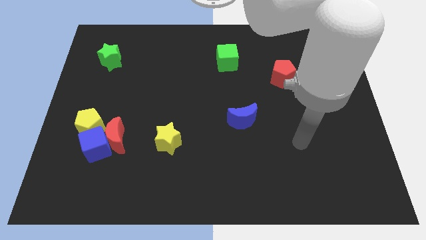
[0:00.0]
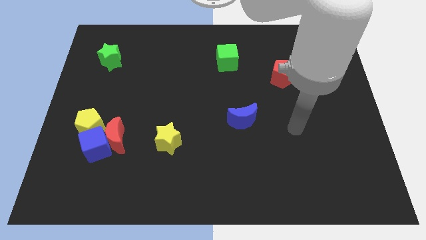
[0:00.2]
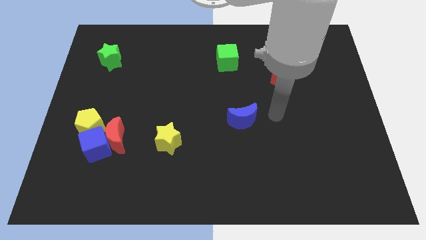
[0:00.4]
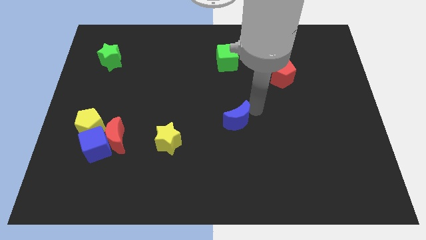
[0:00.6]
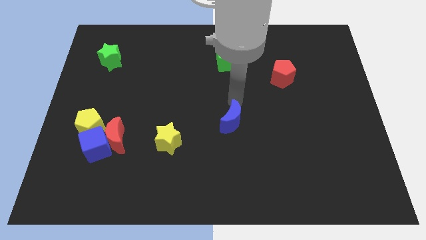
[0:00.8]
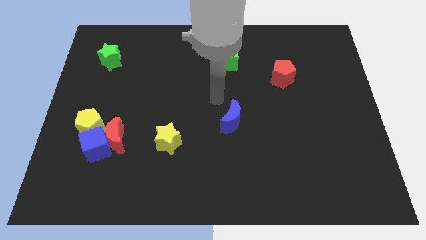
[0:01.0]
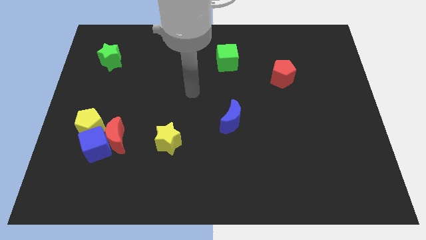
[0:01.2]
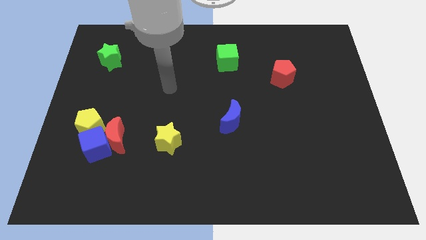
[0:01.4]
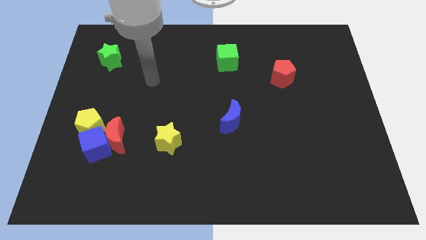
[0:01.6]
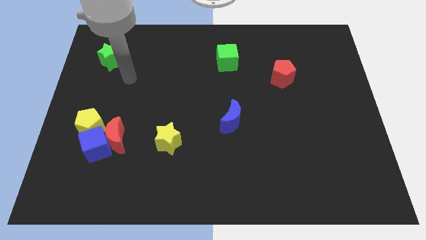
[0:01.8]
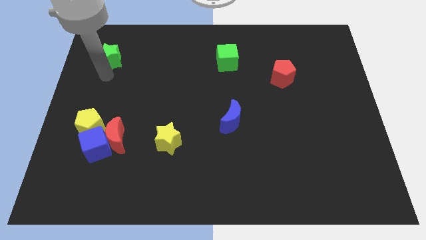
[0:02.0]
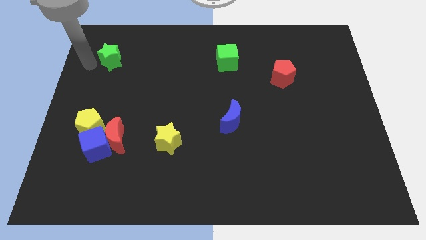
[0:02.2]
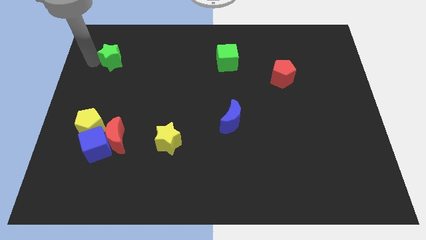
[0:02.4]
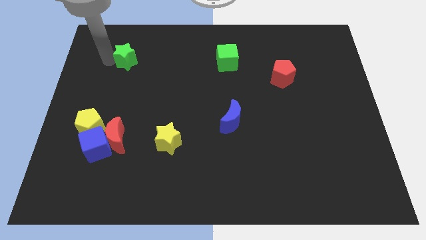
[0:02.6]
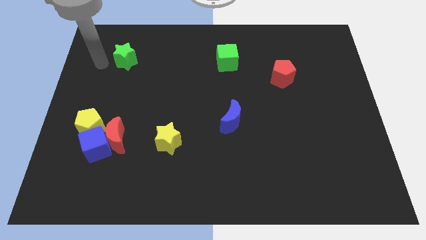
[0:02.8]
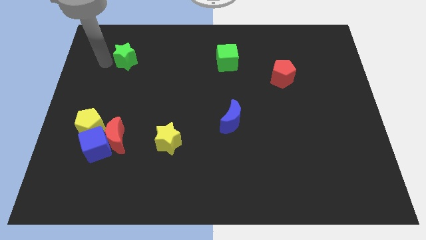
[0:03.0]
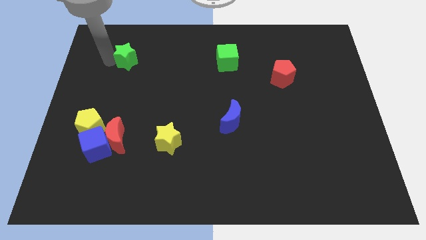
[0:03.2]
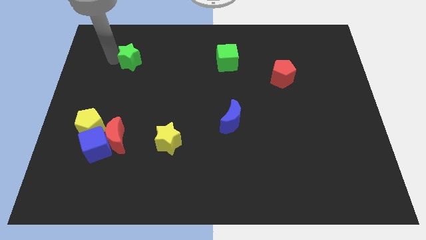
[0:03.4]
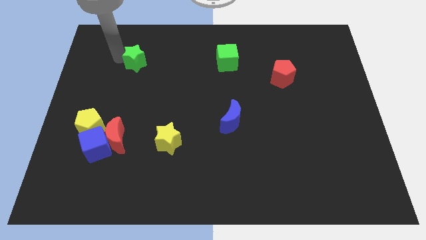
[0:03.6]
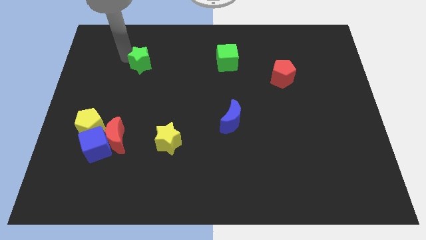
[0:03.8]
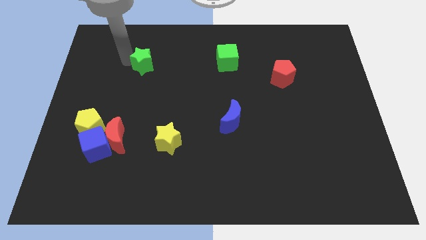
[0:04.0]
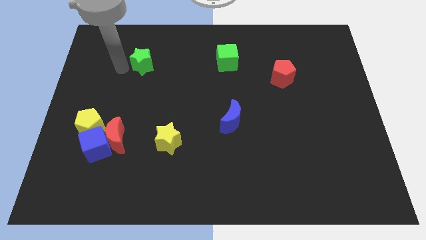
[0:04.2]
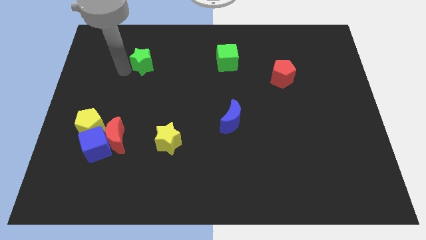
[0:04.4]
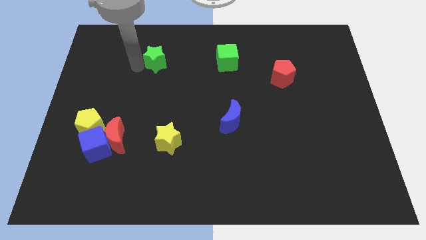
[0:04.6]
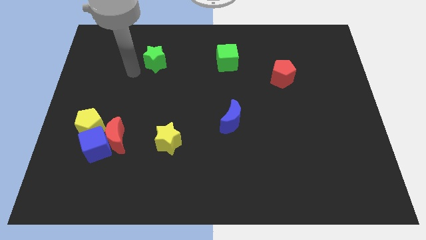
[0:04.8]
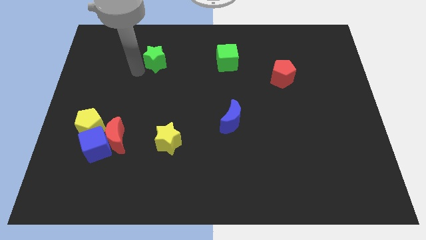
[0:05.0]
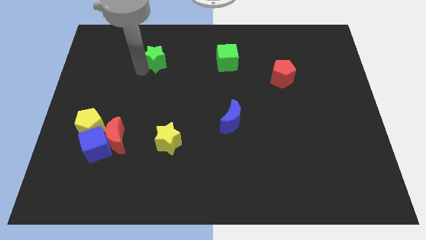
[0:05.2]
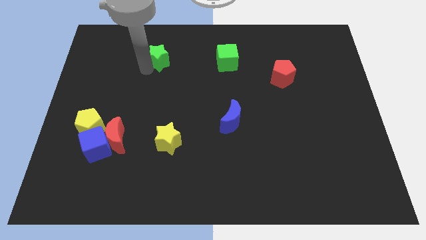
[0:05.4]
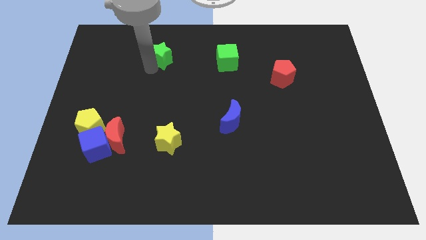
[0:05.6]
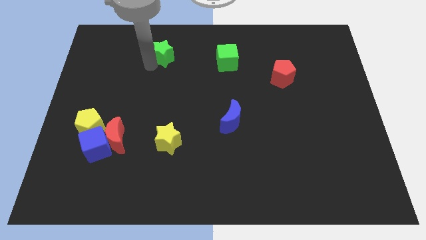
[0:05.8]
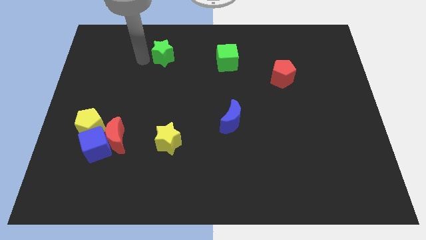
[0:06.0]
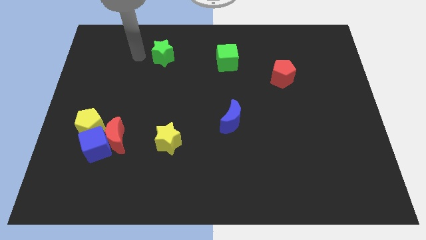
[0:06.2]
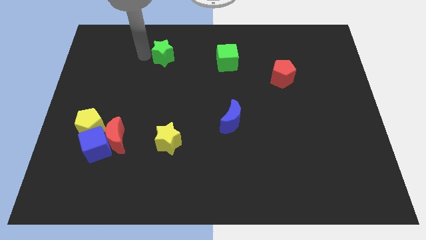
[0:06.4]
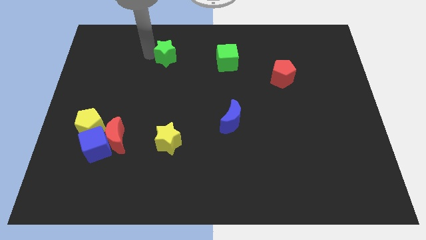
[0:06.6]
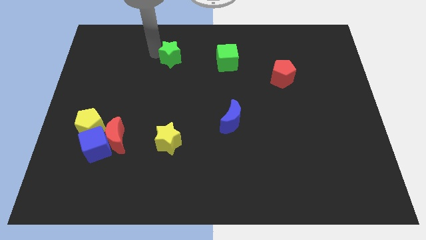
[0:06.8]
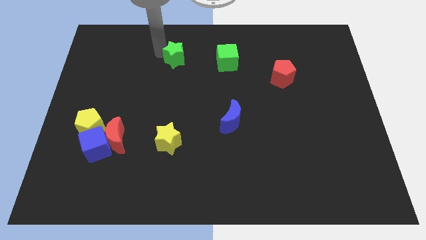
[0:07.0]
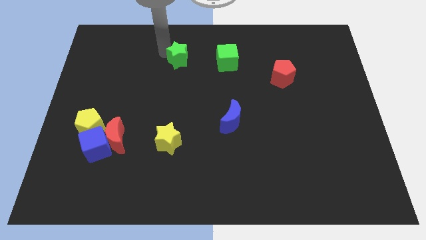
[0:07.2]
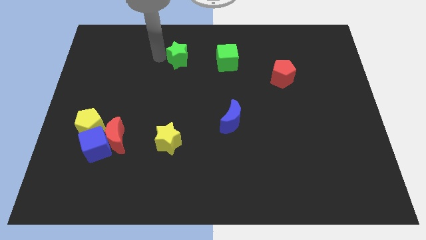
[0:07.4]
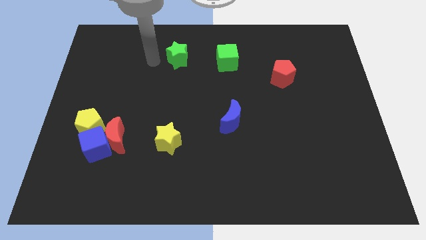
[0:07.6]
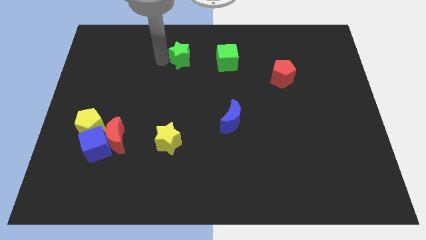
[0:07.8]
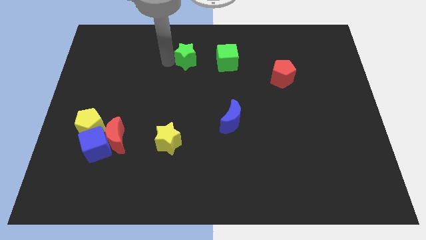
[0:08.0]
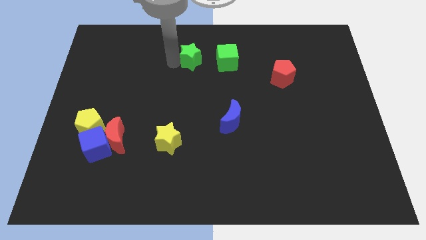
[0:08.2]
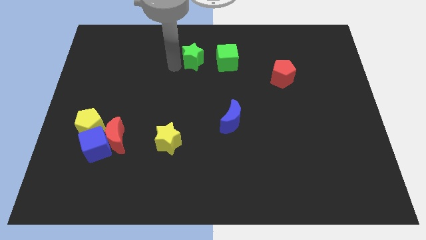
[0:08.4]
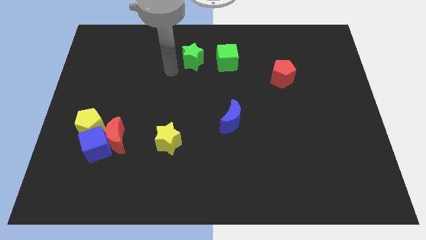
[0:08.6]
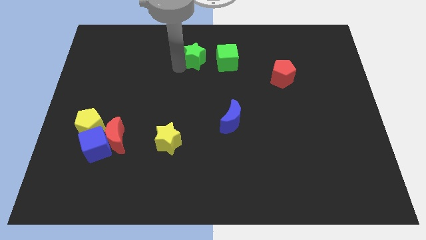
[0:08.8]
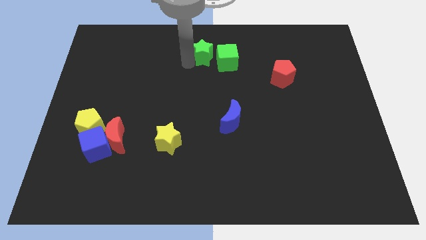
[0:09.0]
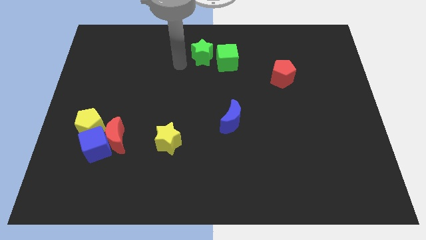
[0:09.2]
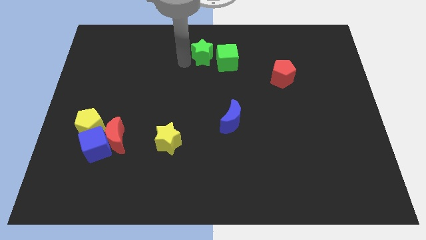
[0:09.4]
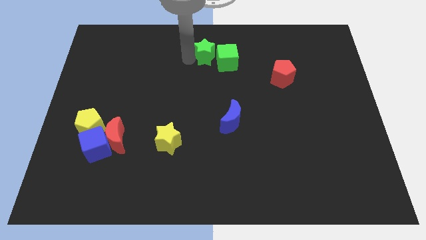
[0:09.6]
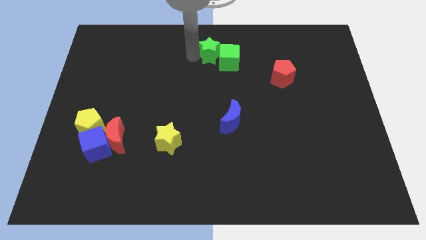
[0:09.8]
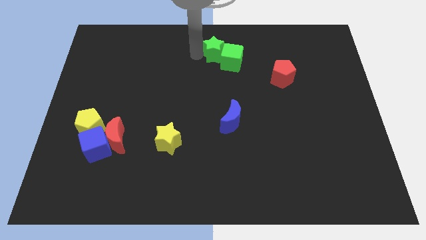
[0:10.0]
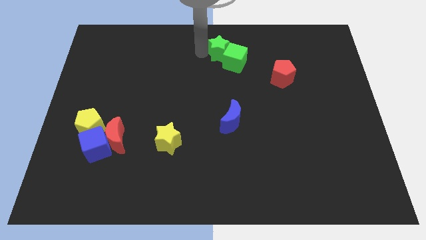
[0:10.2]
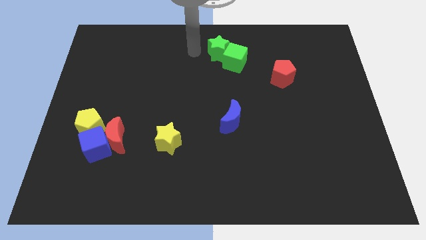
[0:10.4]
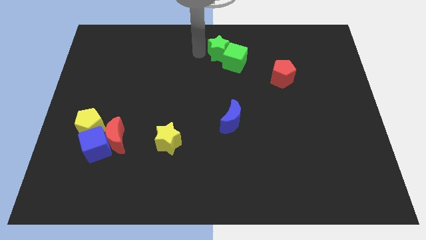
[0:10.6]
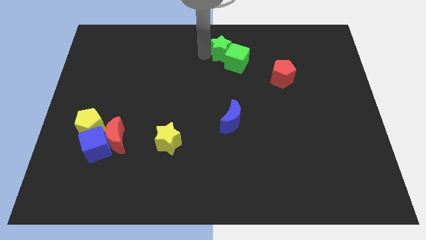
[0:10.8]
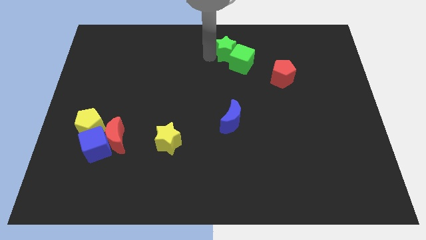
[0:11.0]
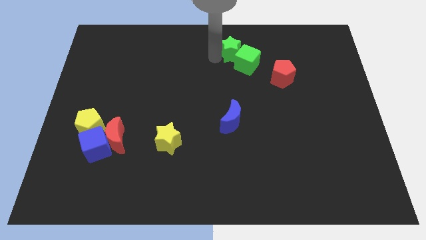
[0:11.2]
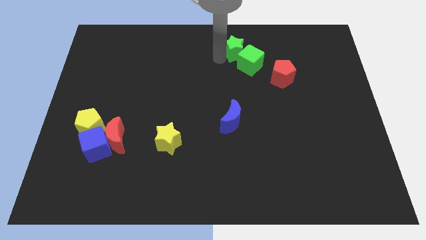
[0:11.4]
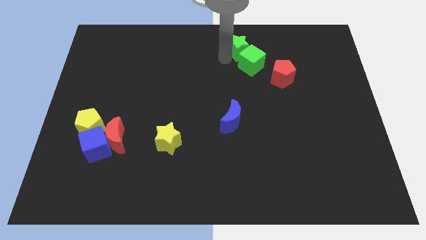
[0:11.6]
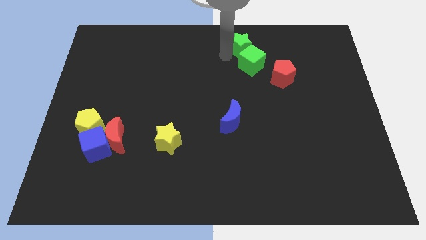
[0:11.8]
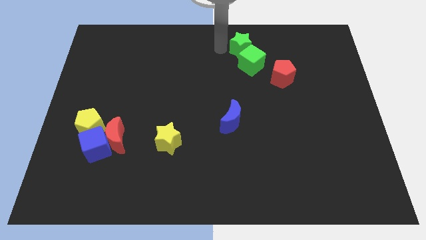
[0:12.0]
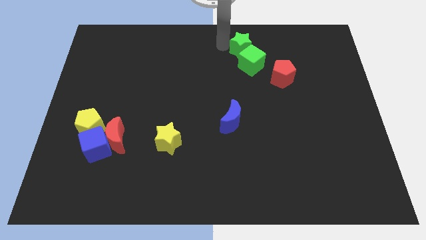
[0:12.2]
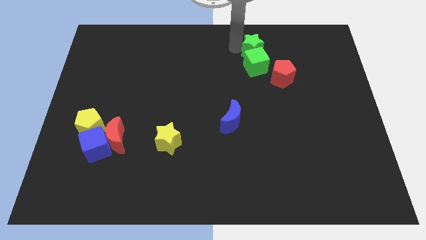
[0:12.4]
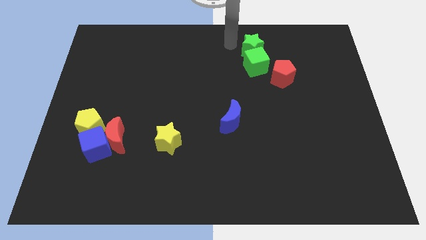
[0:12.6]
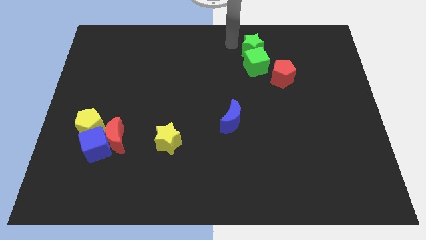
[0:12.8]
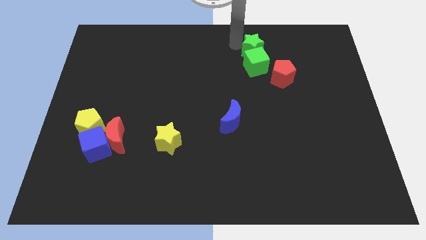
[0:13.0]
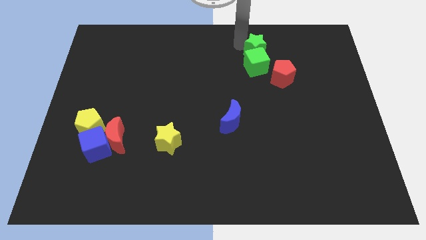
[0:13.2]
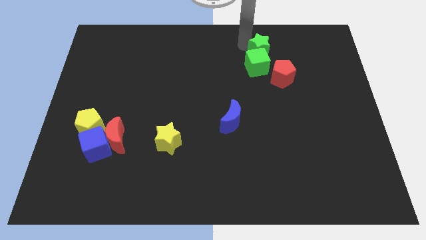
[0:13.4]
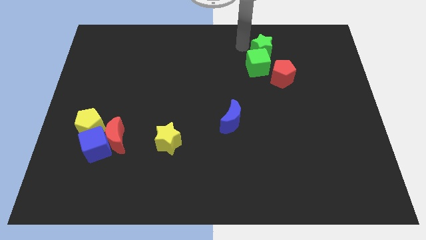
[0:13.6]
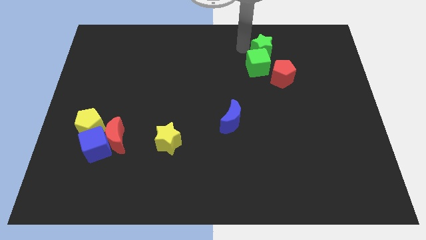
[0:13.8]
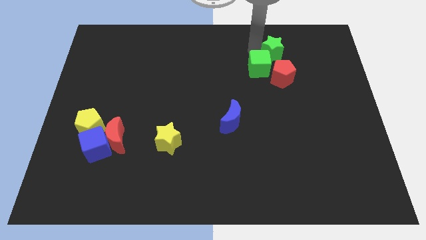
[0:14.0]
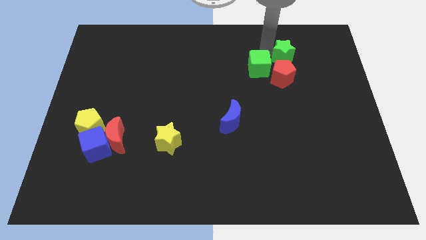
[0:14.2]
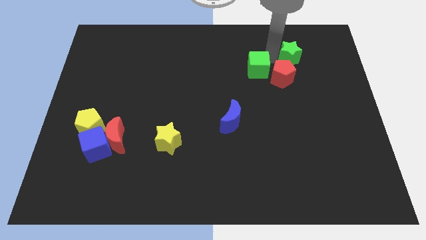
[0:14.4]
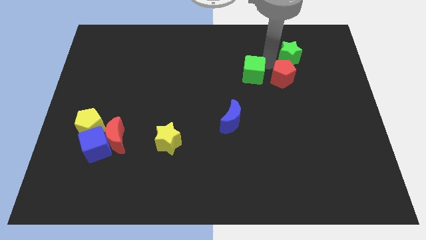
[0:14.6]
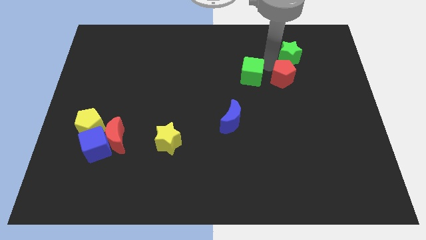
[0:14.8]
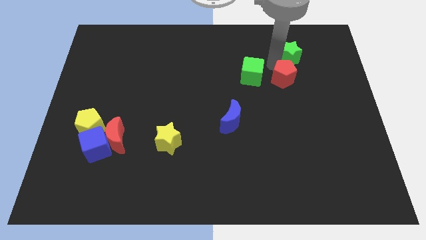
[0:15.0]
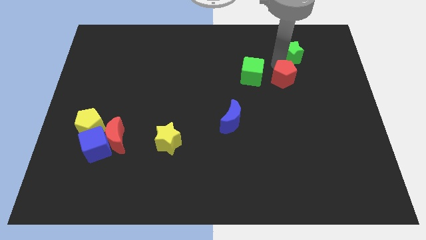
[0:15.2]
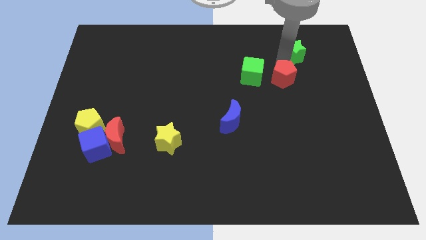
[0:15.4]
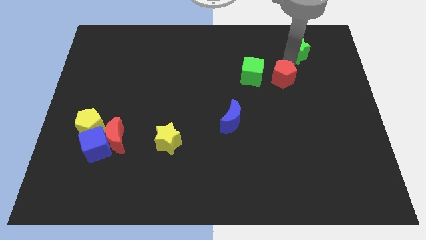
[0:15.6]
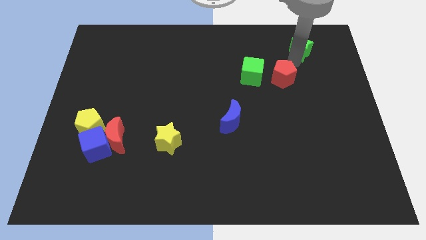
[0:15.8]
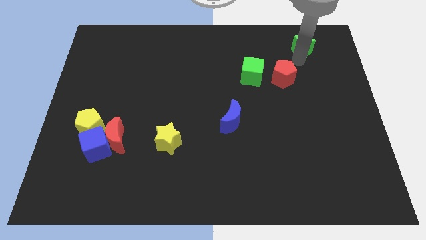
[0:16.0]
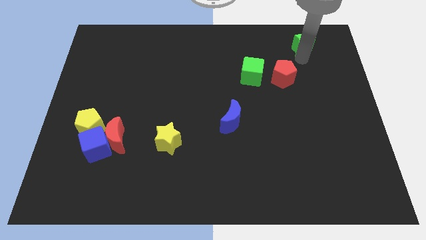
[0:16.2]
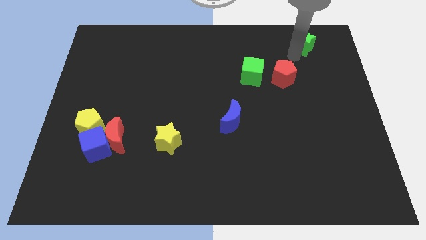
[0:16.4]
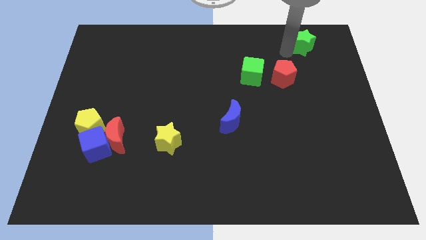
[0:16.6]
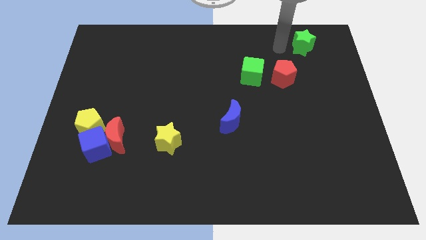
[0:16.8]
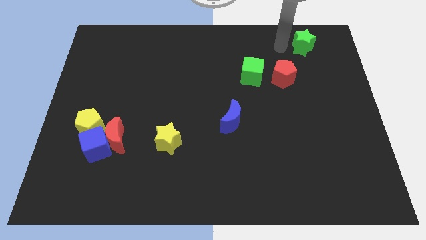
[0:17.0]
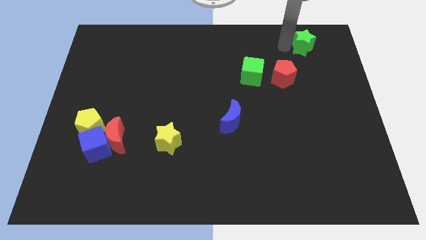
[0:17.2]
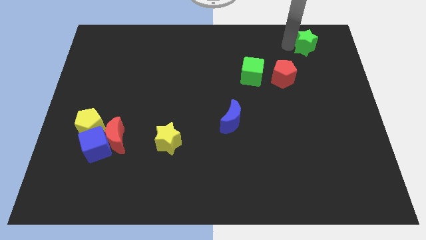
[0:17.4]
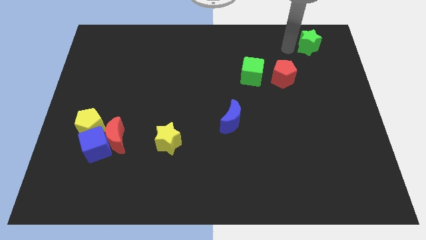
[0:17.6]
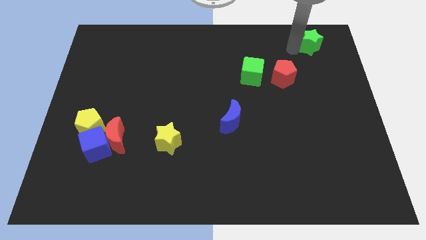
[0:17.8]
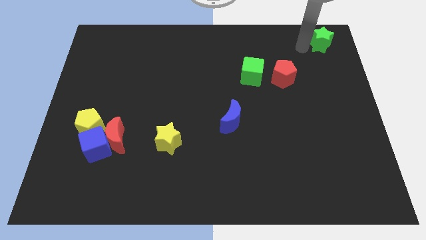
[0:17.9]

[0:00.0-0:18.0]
put the green star to the top right
